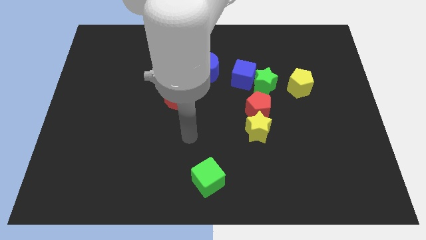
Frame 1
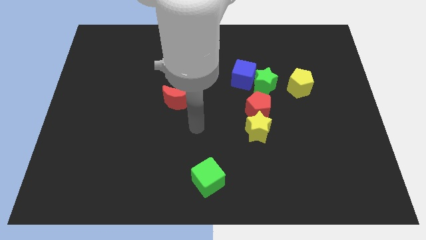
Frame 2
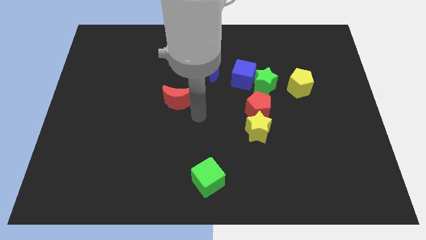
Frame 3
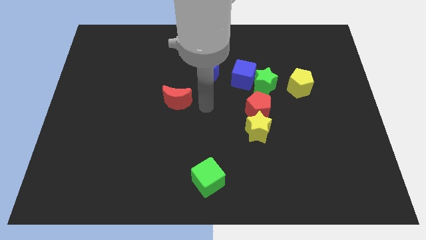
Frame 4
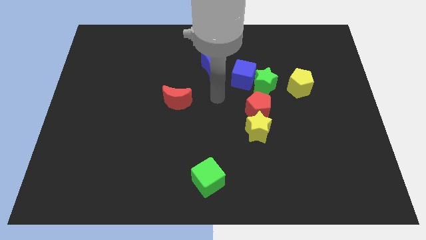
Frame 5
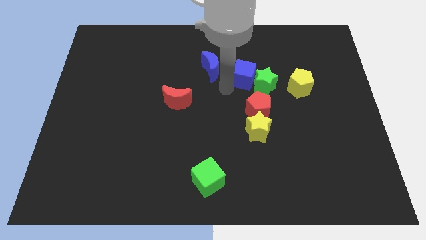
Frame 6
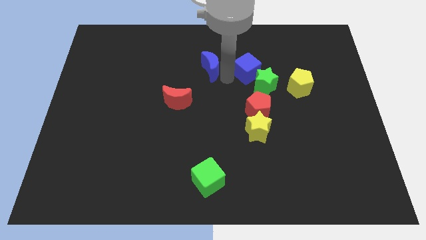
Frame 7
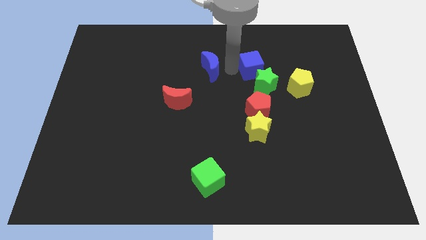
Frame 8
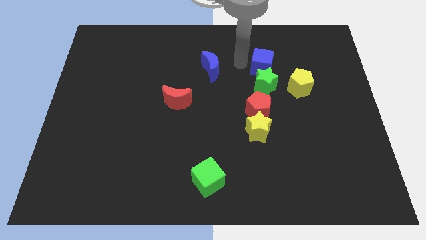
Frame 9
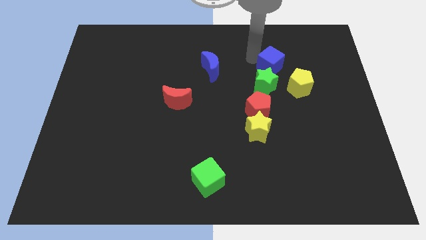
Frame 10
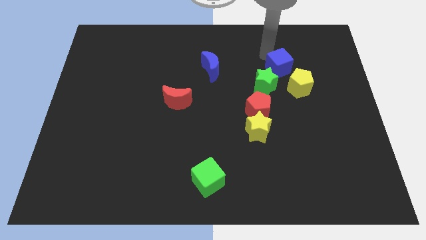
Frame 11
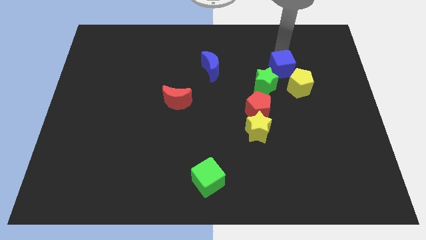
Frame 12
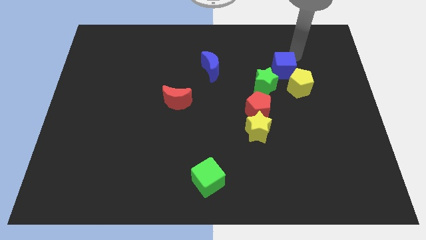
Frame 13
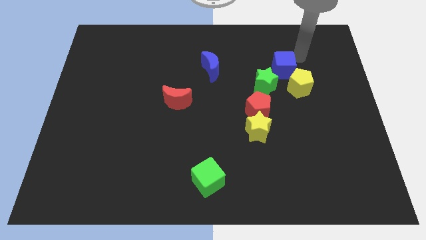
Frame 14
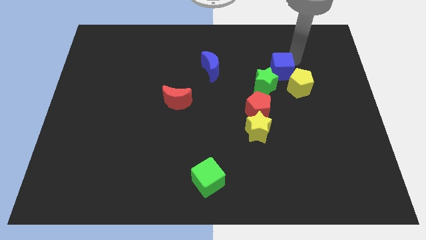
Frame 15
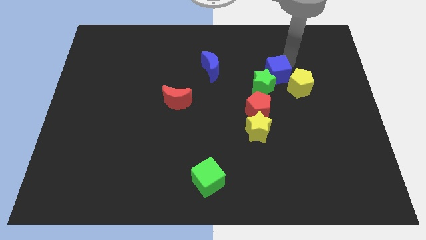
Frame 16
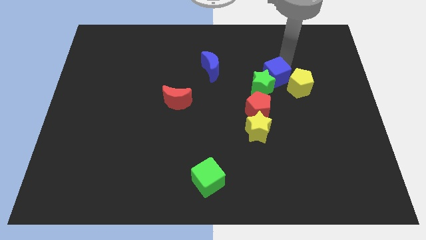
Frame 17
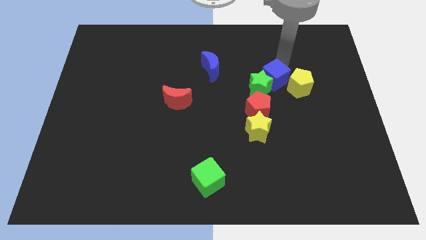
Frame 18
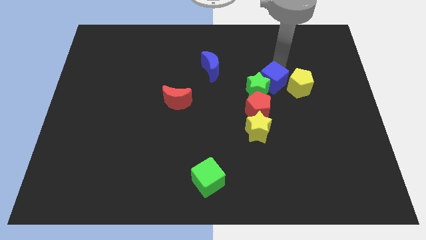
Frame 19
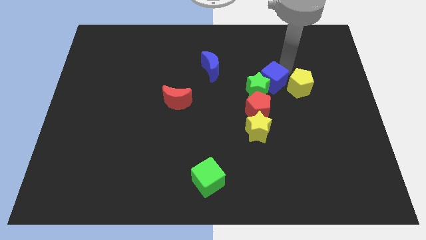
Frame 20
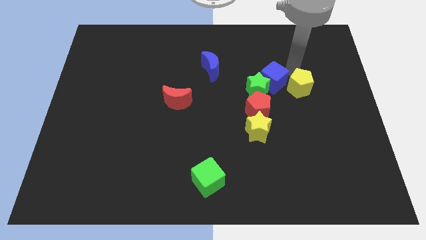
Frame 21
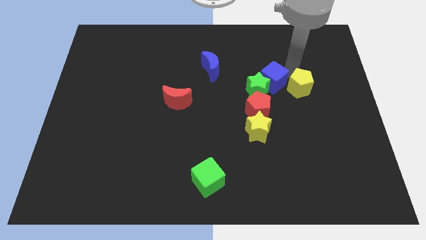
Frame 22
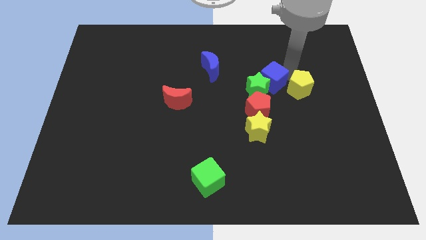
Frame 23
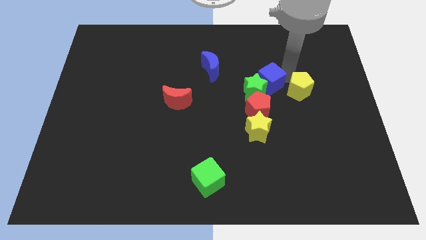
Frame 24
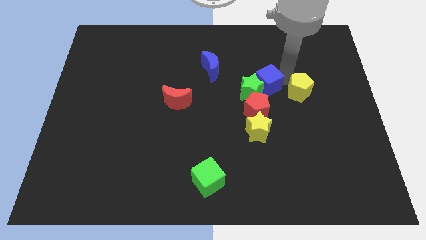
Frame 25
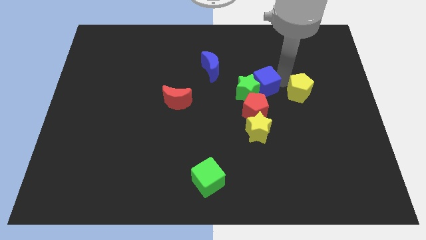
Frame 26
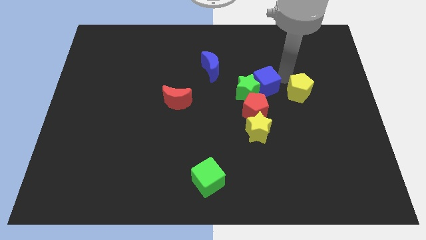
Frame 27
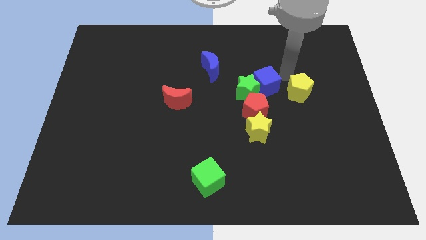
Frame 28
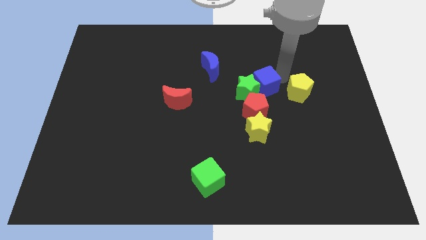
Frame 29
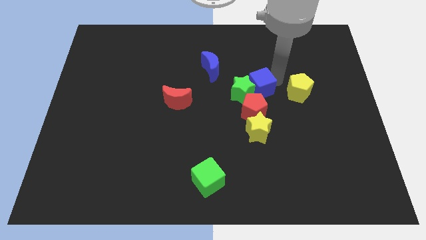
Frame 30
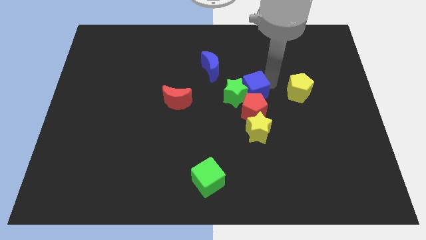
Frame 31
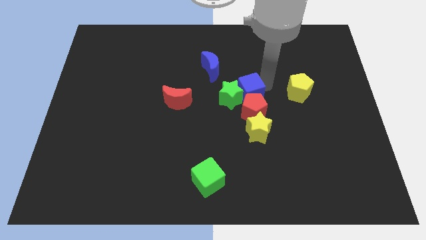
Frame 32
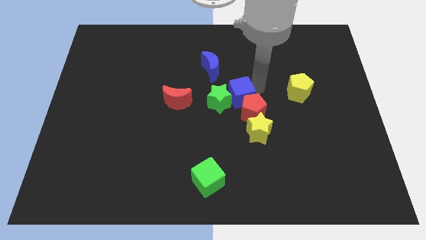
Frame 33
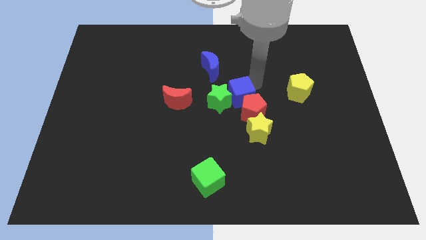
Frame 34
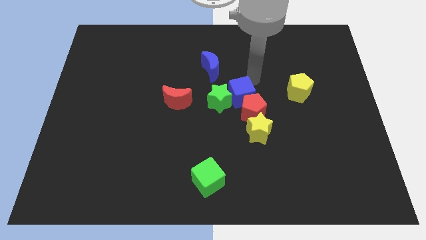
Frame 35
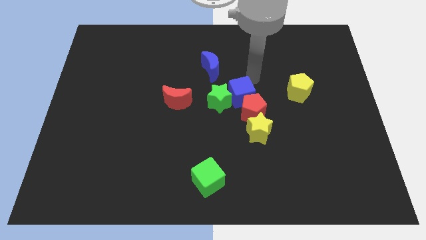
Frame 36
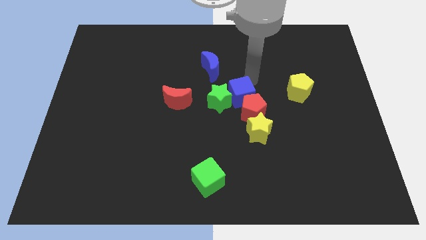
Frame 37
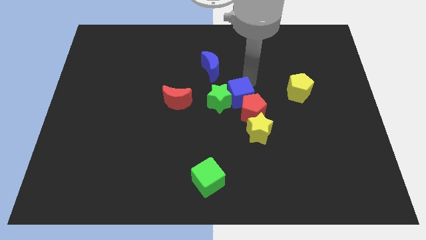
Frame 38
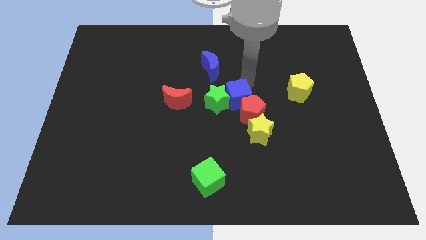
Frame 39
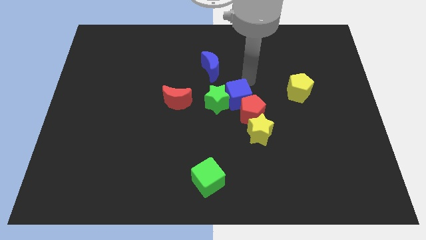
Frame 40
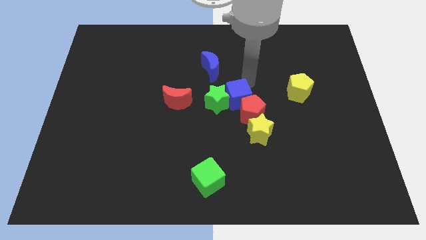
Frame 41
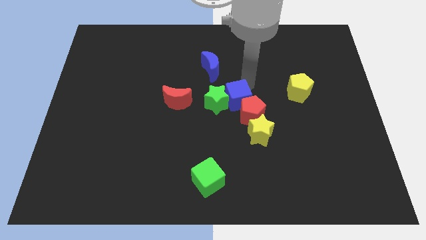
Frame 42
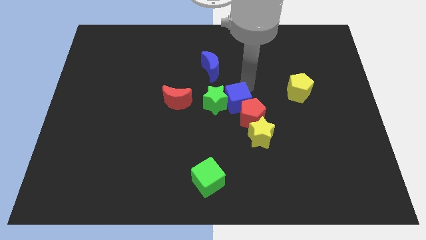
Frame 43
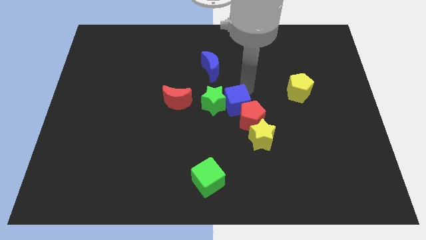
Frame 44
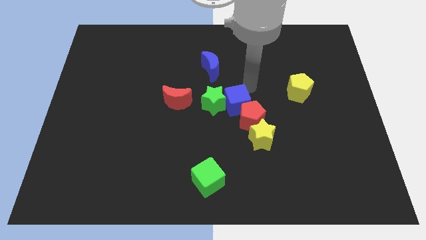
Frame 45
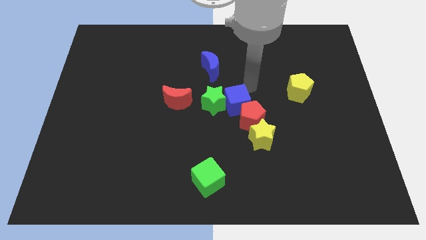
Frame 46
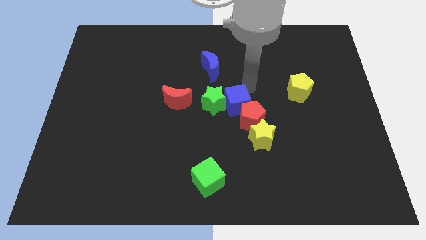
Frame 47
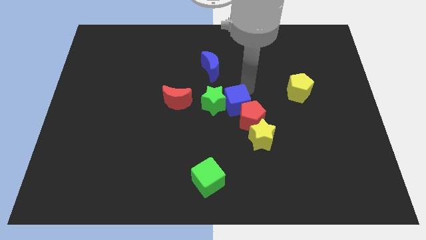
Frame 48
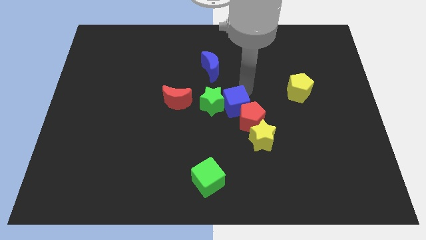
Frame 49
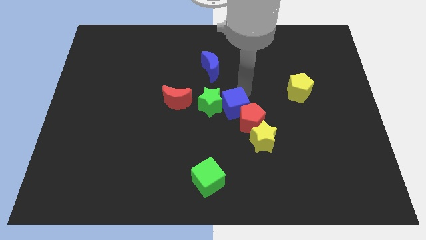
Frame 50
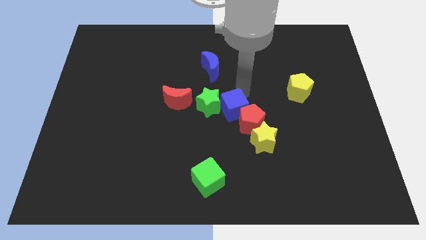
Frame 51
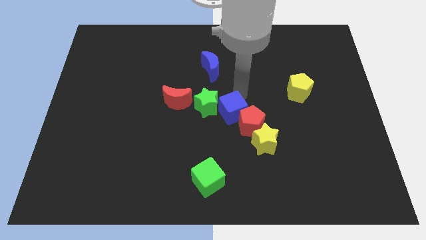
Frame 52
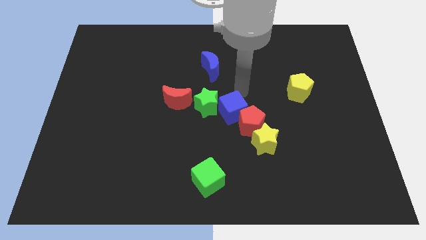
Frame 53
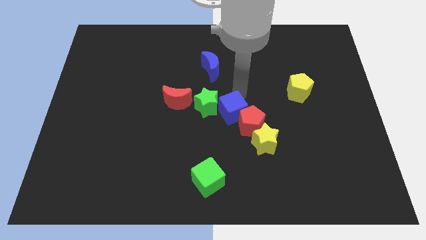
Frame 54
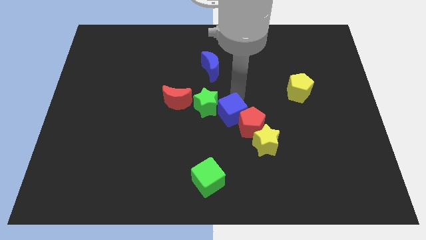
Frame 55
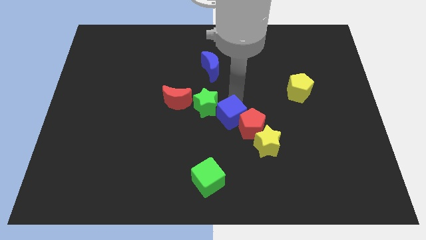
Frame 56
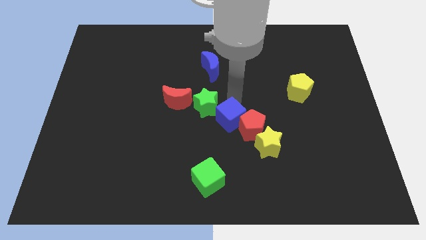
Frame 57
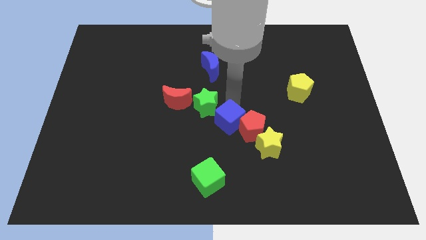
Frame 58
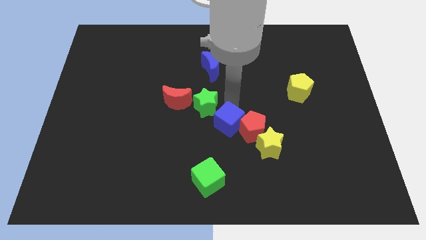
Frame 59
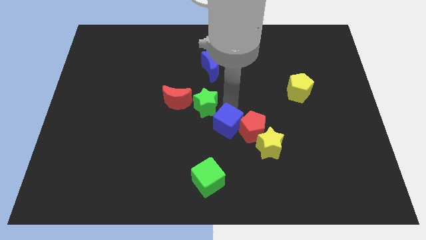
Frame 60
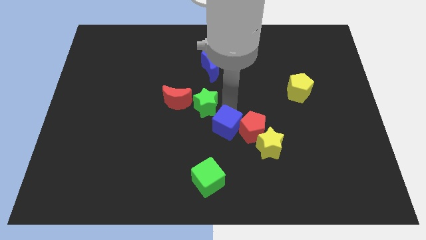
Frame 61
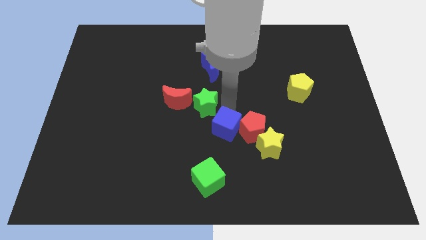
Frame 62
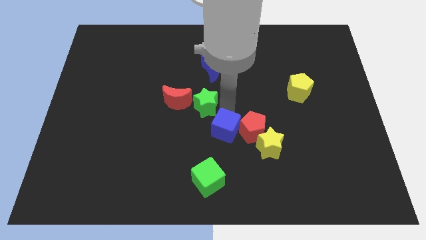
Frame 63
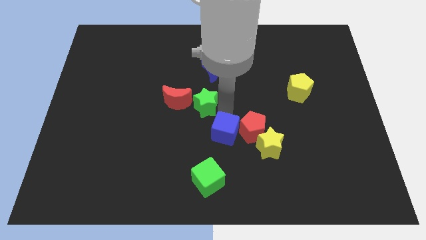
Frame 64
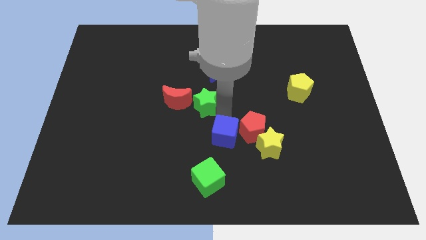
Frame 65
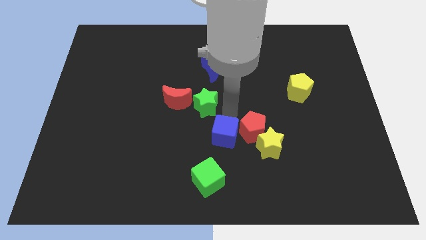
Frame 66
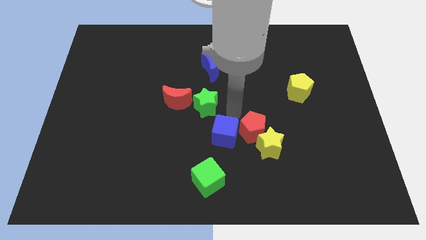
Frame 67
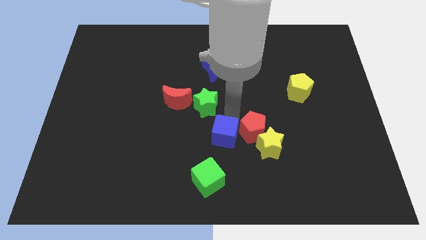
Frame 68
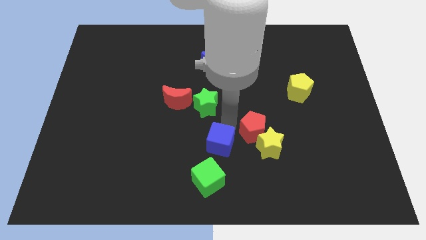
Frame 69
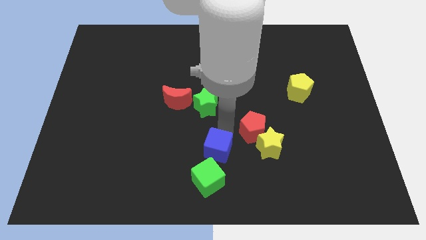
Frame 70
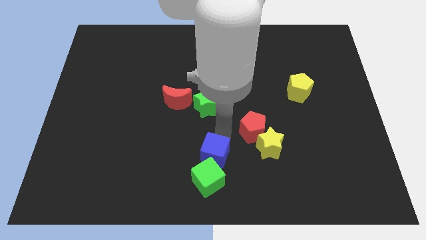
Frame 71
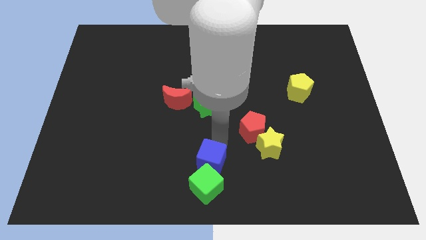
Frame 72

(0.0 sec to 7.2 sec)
put the blue cube next to the green cube
